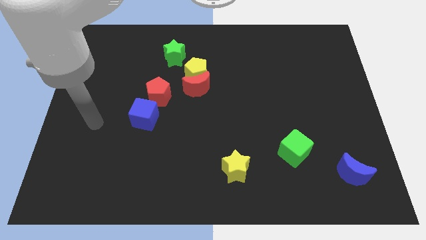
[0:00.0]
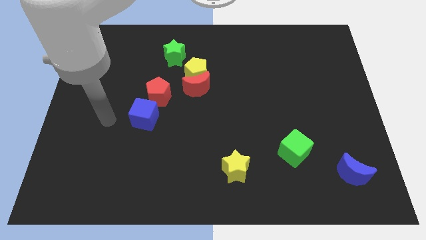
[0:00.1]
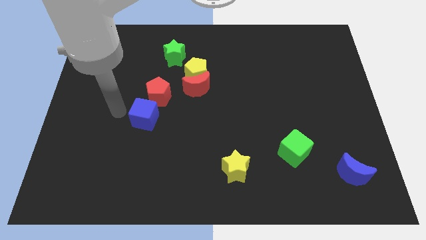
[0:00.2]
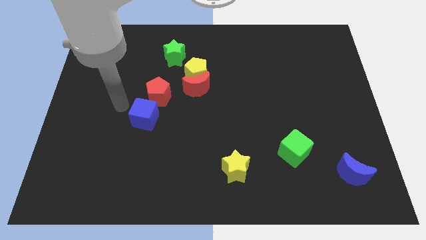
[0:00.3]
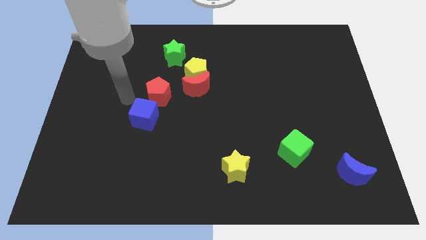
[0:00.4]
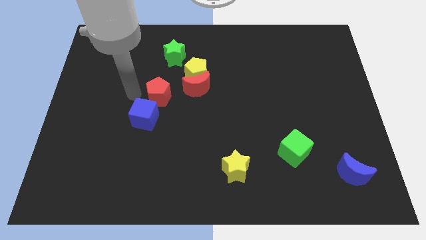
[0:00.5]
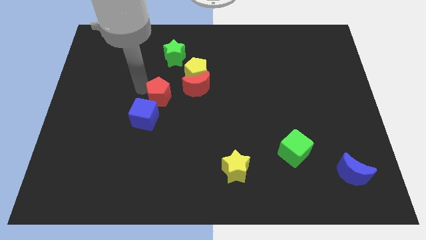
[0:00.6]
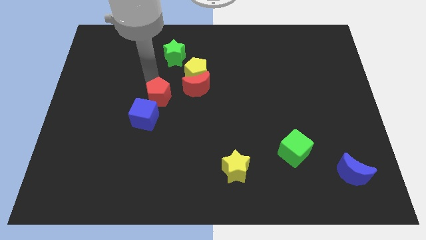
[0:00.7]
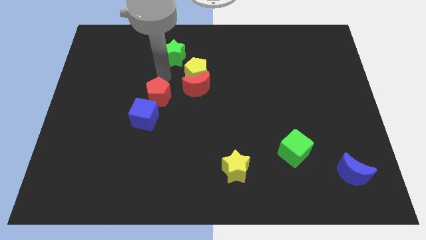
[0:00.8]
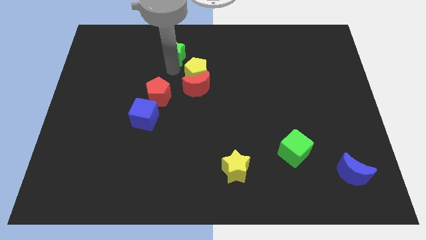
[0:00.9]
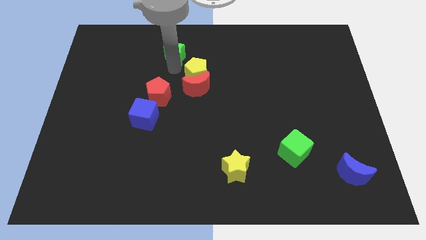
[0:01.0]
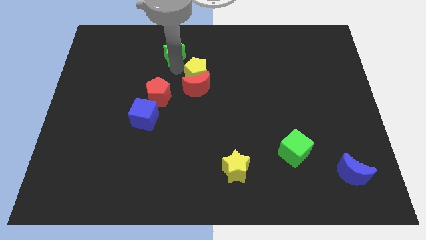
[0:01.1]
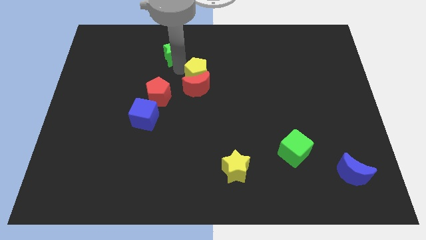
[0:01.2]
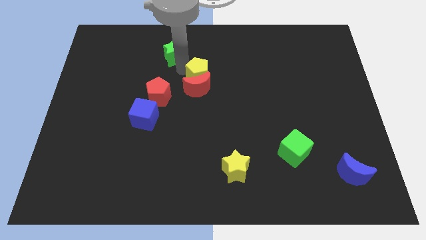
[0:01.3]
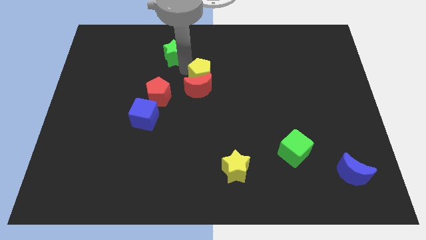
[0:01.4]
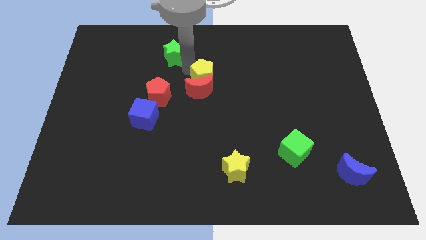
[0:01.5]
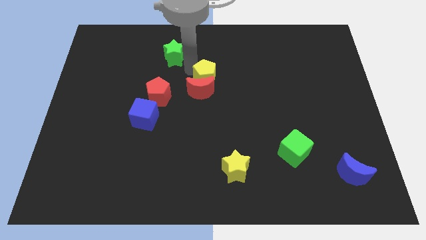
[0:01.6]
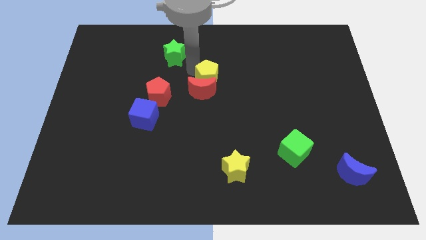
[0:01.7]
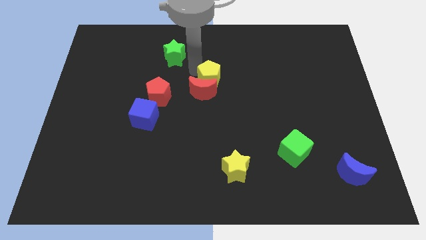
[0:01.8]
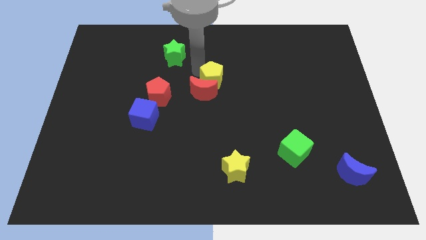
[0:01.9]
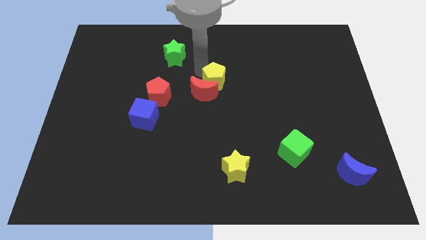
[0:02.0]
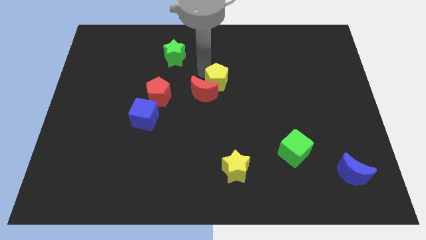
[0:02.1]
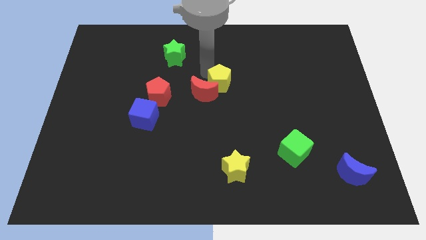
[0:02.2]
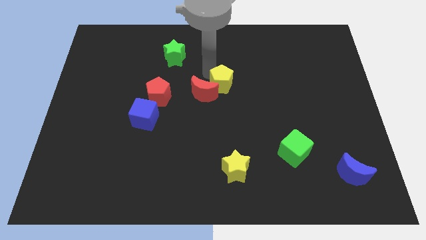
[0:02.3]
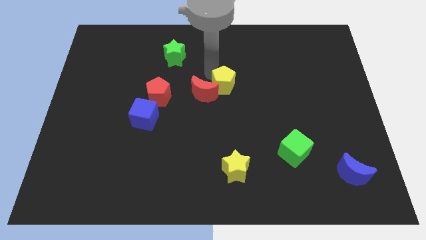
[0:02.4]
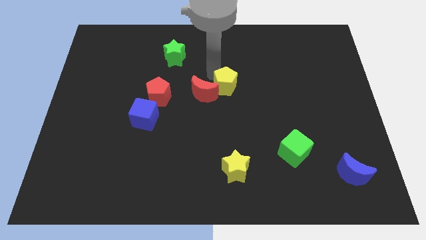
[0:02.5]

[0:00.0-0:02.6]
pull the yellow pentagon apart from the red moon and green star

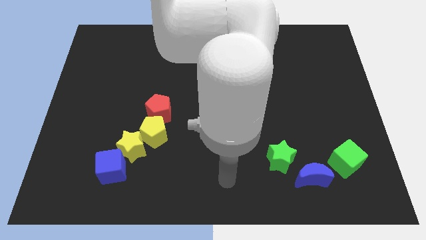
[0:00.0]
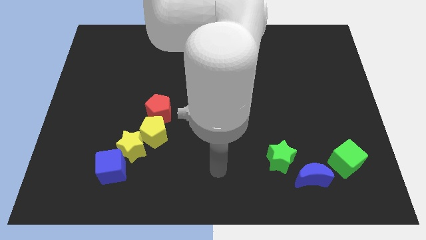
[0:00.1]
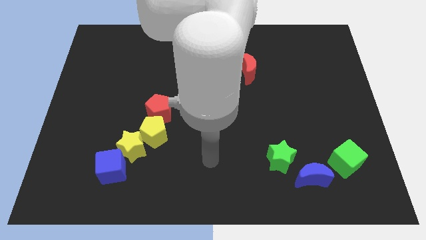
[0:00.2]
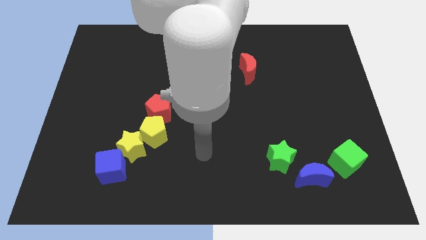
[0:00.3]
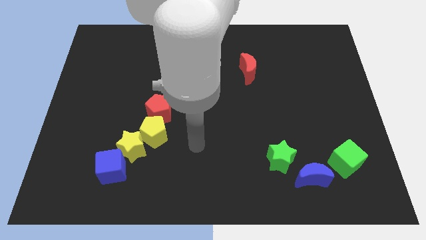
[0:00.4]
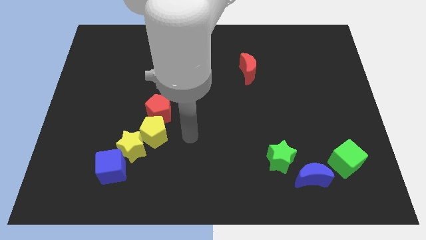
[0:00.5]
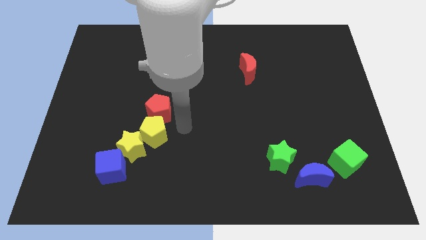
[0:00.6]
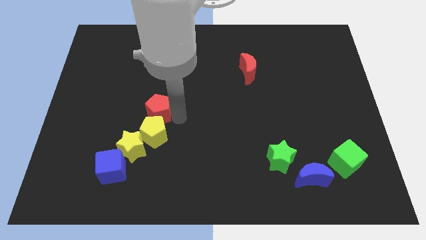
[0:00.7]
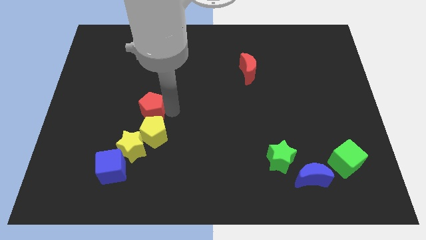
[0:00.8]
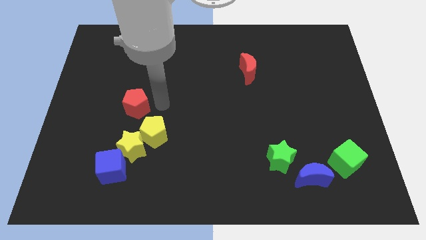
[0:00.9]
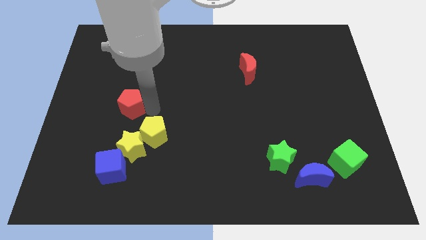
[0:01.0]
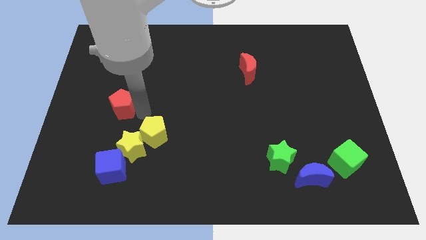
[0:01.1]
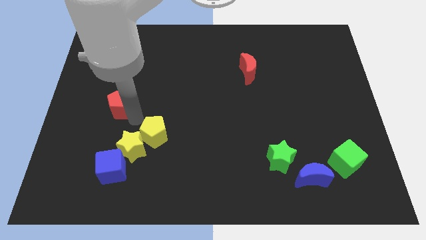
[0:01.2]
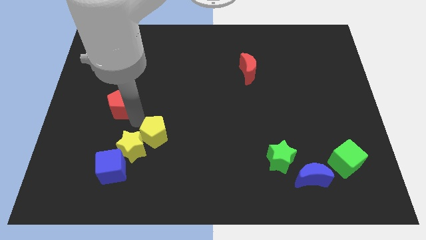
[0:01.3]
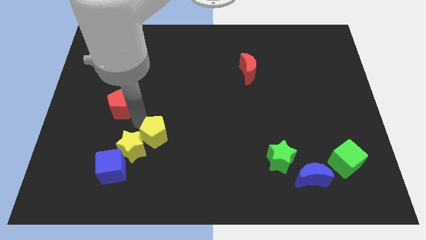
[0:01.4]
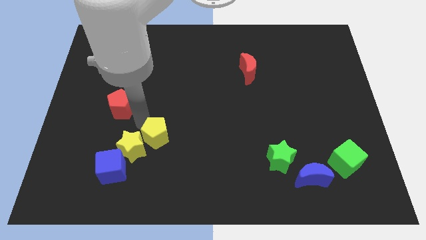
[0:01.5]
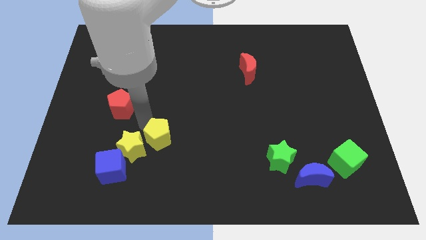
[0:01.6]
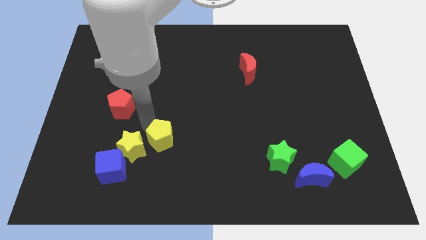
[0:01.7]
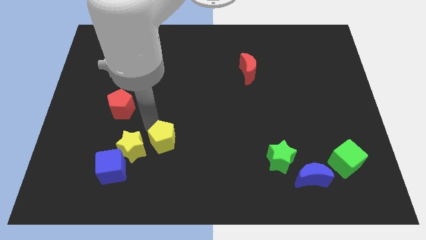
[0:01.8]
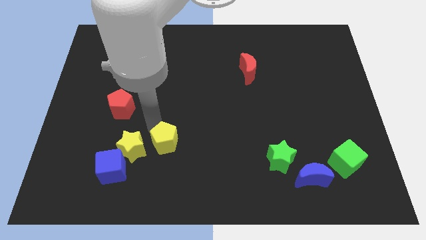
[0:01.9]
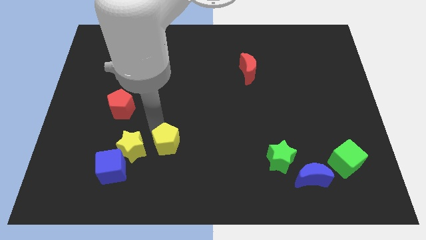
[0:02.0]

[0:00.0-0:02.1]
separate the yellow pentagon from the yellow star and red pentagon

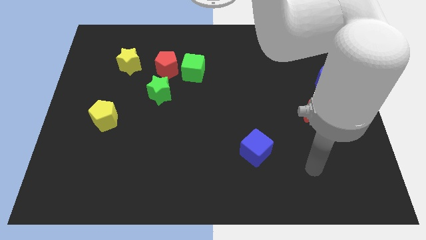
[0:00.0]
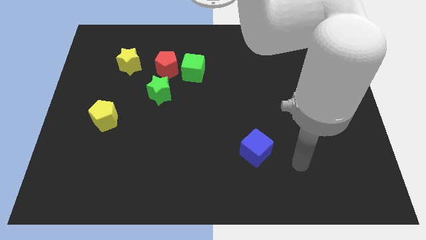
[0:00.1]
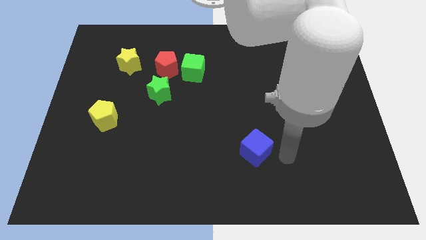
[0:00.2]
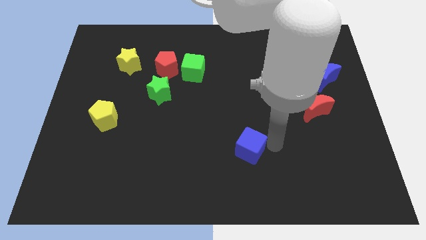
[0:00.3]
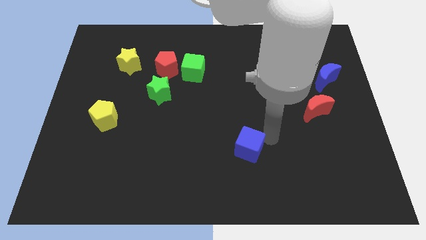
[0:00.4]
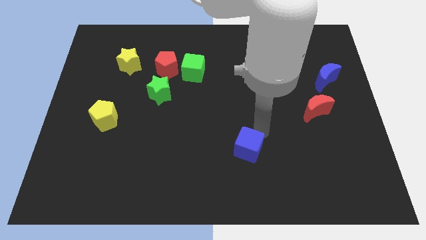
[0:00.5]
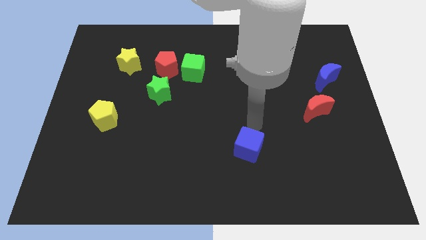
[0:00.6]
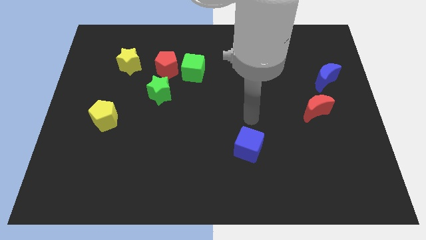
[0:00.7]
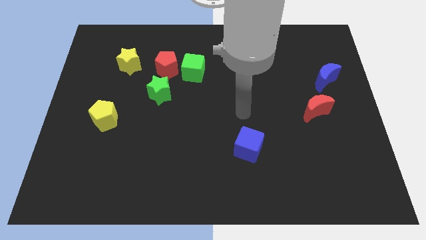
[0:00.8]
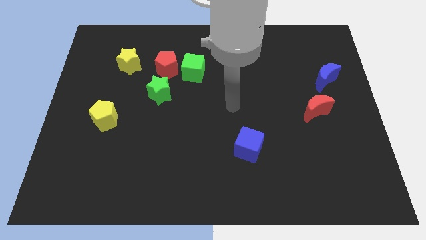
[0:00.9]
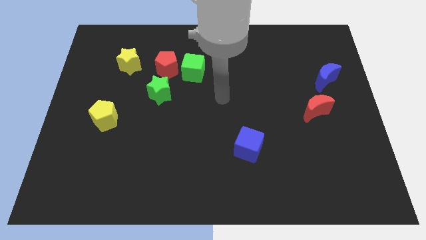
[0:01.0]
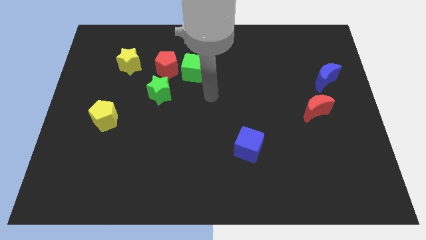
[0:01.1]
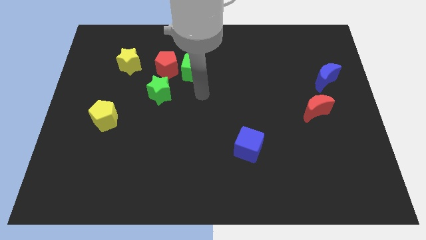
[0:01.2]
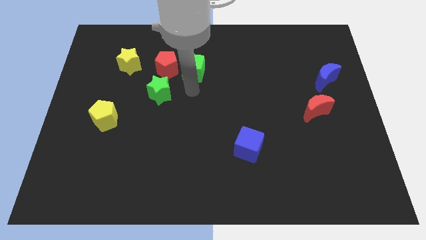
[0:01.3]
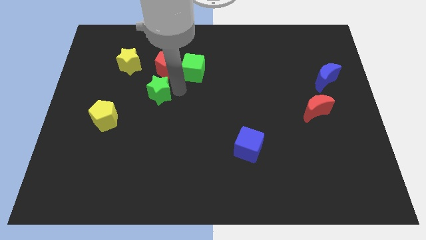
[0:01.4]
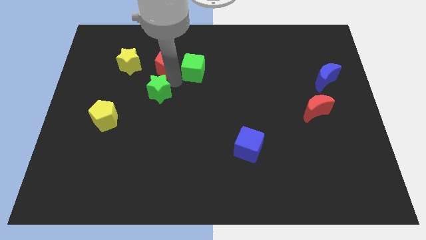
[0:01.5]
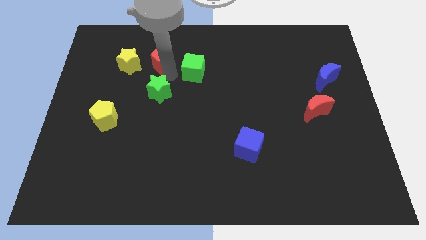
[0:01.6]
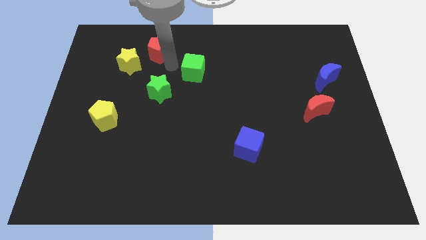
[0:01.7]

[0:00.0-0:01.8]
move the green cube away from the red pentagon

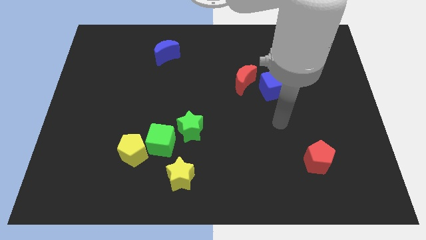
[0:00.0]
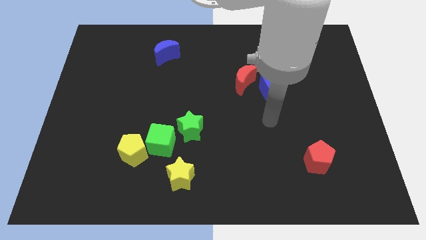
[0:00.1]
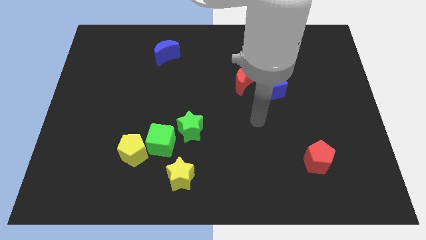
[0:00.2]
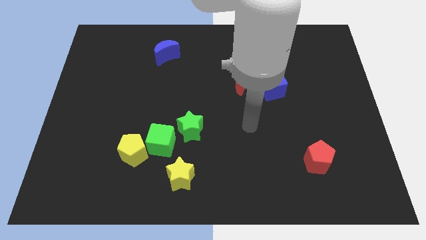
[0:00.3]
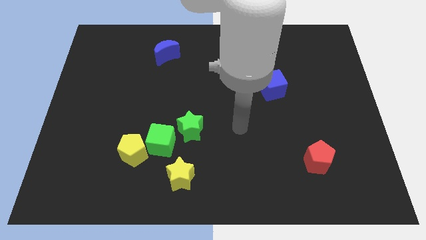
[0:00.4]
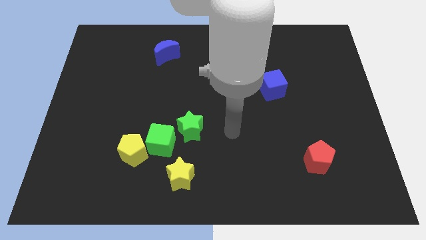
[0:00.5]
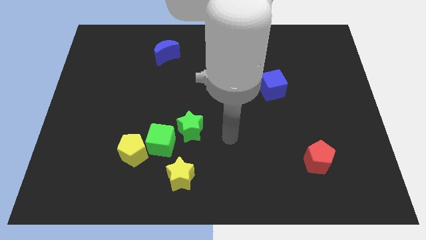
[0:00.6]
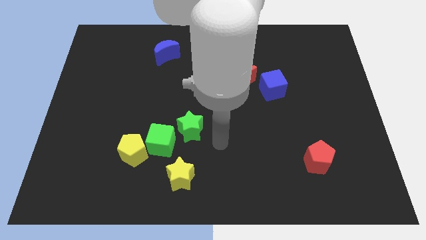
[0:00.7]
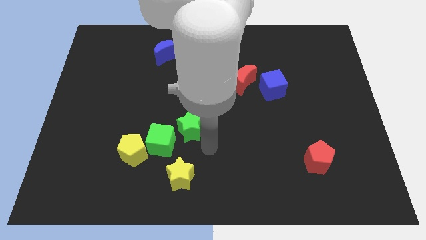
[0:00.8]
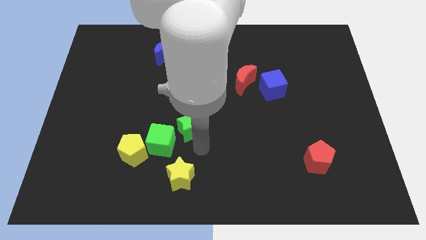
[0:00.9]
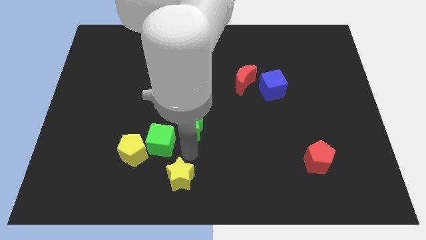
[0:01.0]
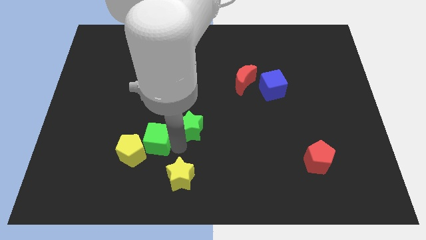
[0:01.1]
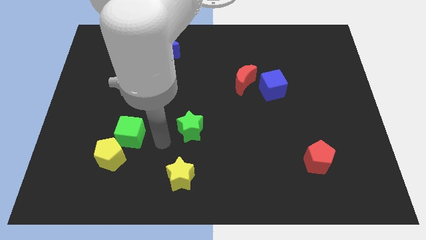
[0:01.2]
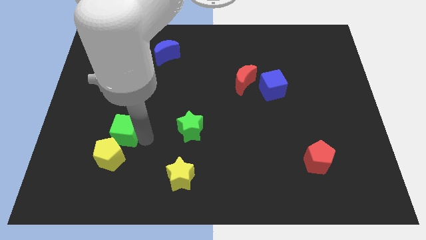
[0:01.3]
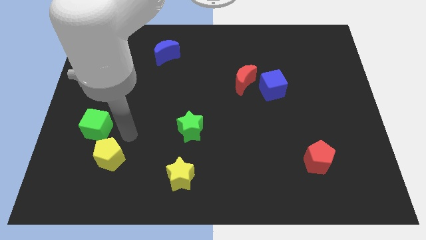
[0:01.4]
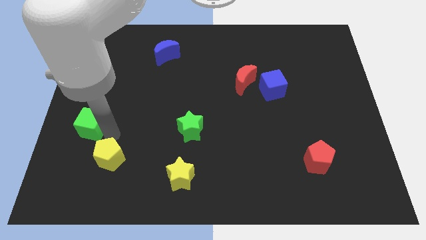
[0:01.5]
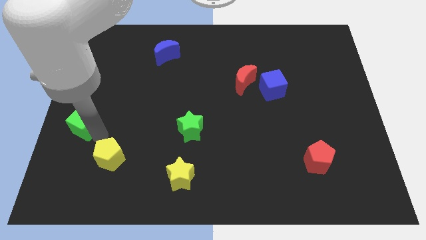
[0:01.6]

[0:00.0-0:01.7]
move the yellow pentagon away from the green cube

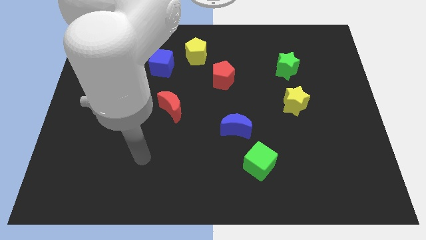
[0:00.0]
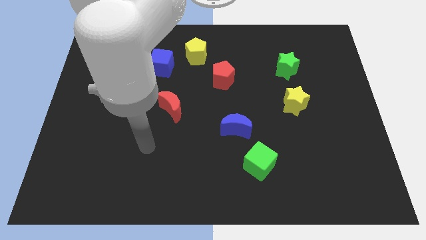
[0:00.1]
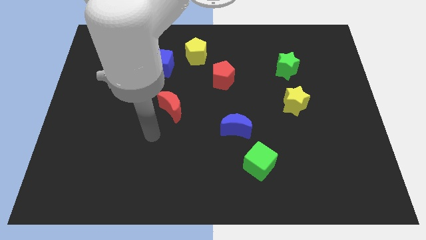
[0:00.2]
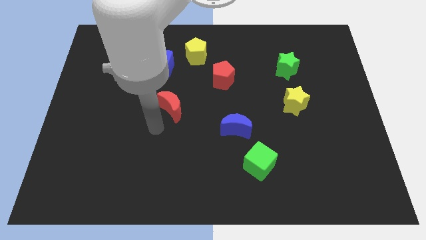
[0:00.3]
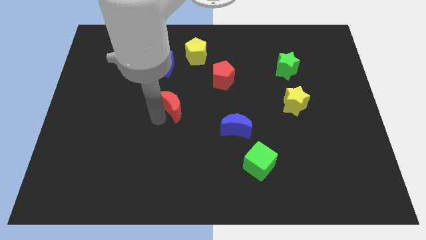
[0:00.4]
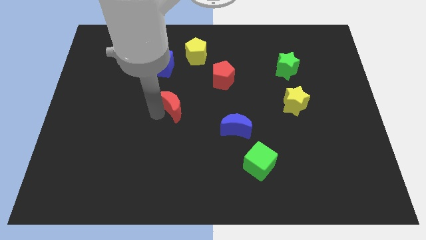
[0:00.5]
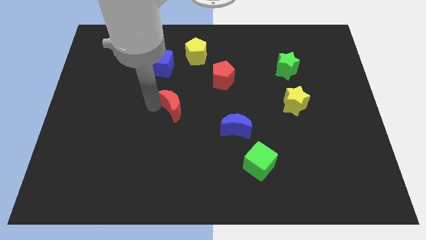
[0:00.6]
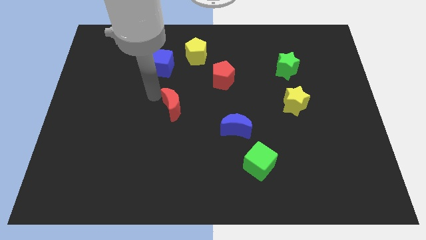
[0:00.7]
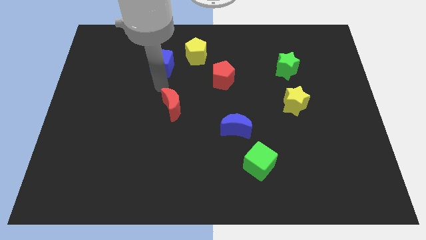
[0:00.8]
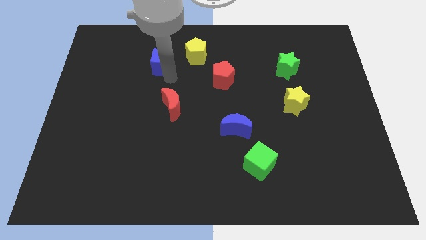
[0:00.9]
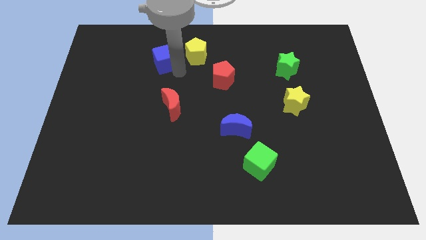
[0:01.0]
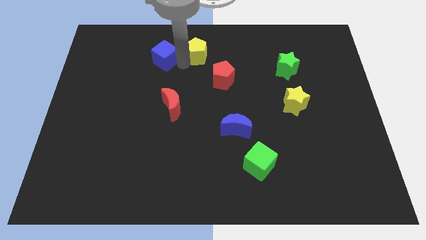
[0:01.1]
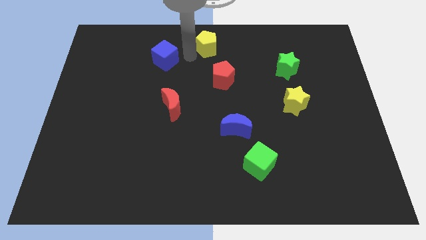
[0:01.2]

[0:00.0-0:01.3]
separate the blue cube from the yellow pentagon
